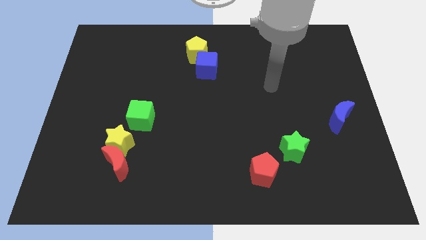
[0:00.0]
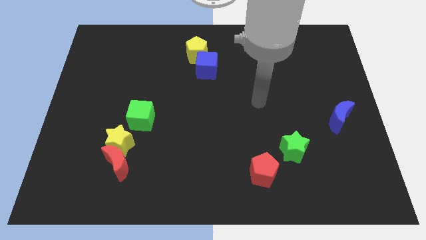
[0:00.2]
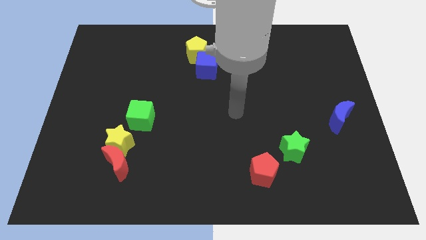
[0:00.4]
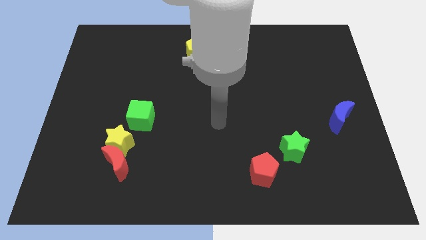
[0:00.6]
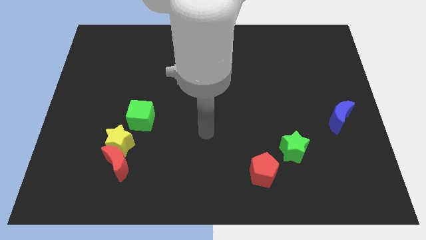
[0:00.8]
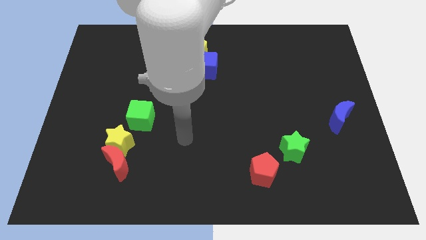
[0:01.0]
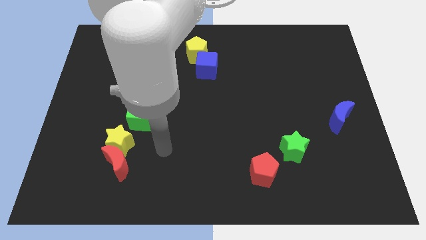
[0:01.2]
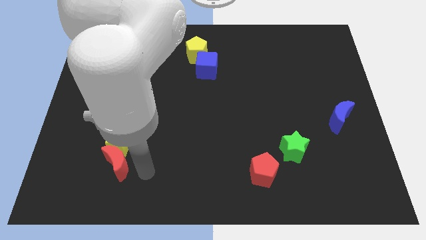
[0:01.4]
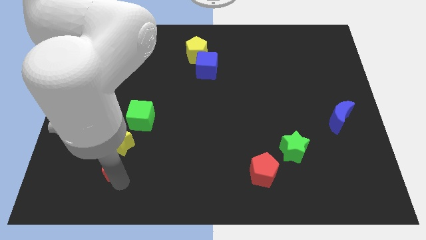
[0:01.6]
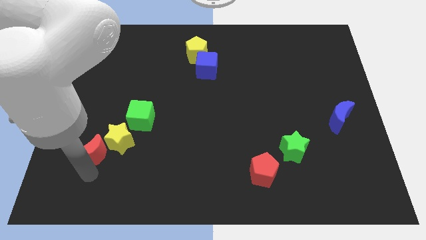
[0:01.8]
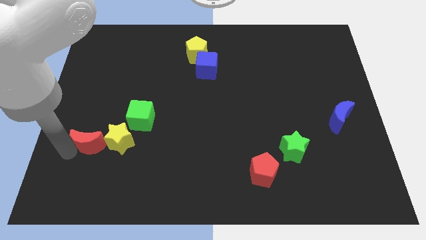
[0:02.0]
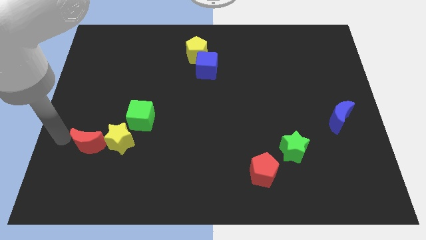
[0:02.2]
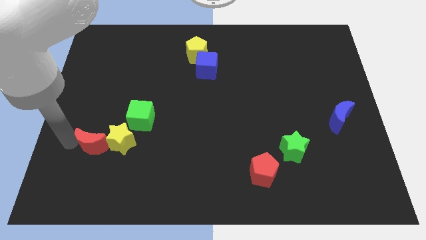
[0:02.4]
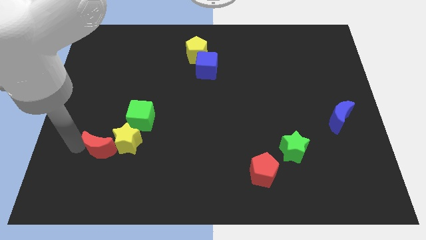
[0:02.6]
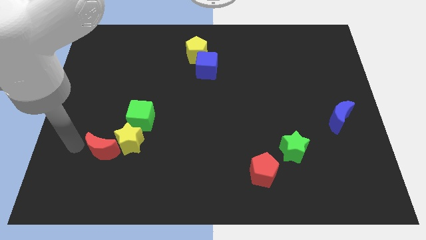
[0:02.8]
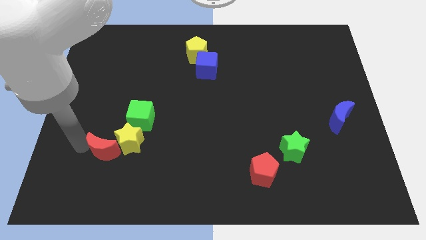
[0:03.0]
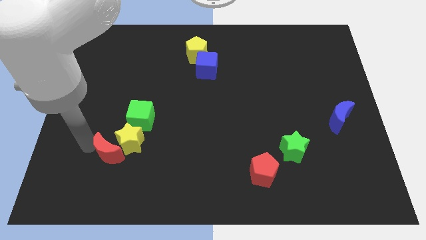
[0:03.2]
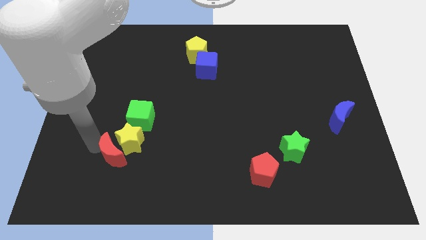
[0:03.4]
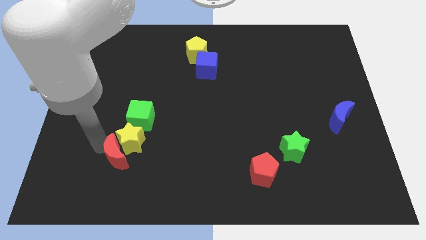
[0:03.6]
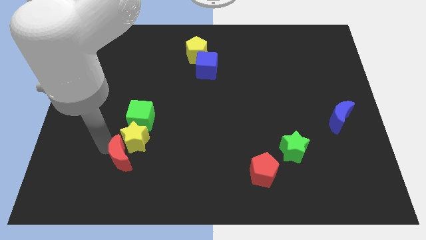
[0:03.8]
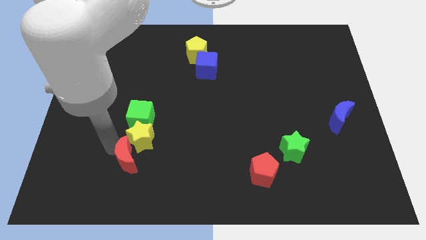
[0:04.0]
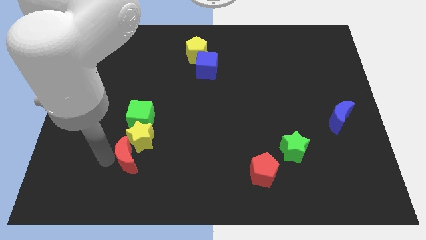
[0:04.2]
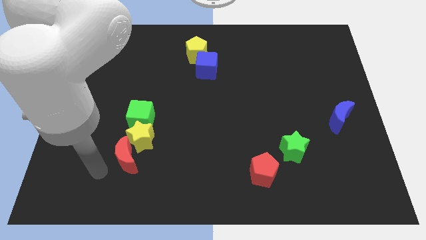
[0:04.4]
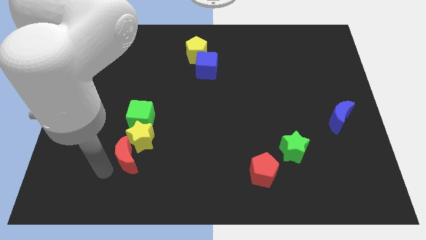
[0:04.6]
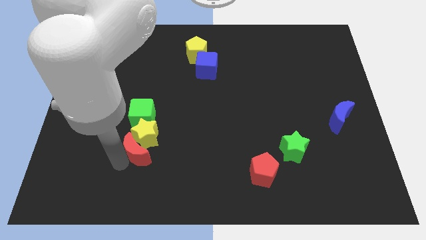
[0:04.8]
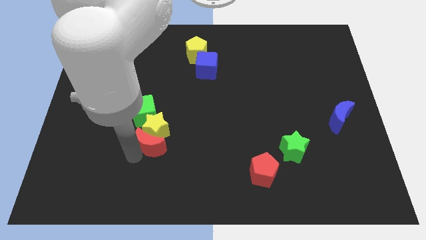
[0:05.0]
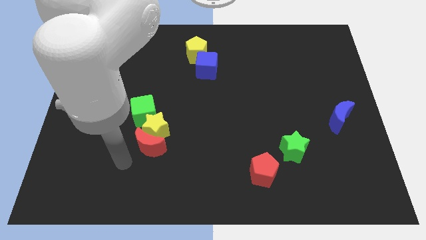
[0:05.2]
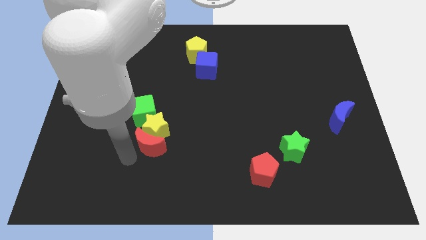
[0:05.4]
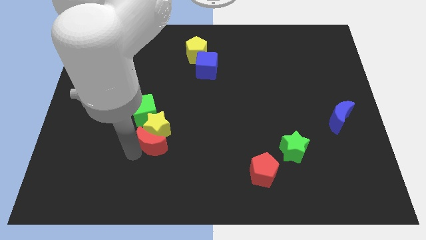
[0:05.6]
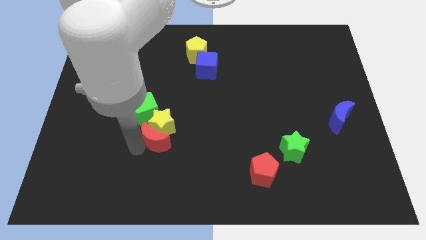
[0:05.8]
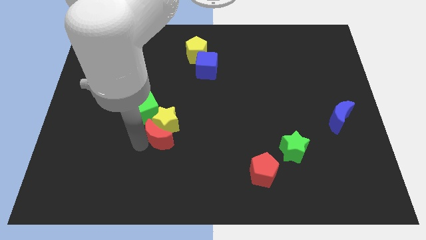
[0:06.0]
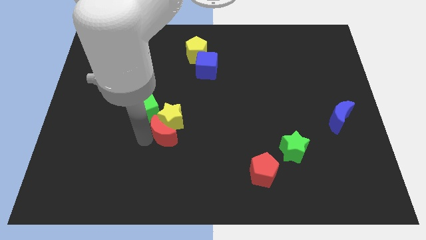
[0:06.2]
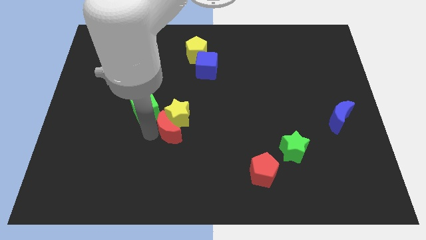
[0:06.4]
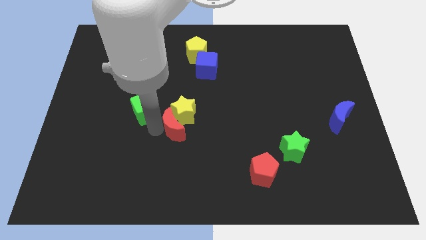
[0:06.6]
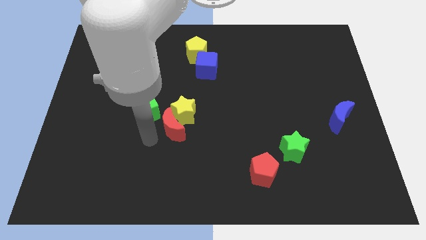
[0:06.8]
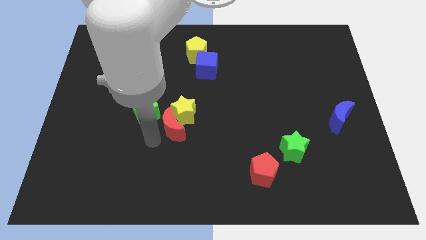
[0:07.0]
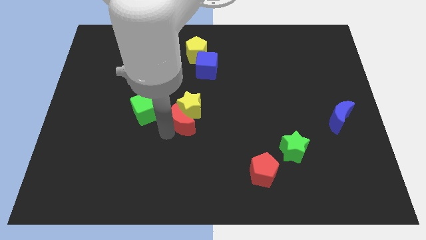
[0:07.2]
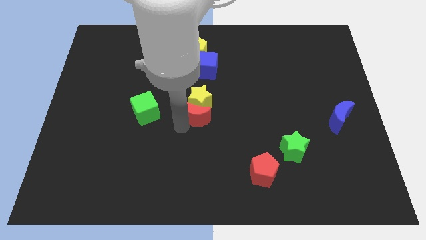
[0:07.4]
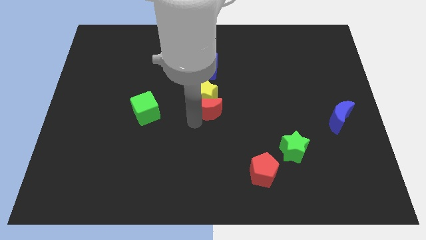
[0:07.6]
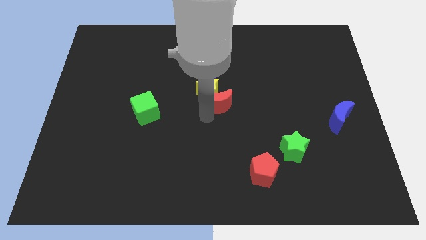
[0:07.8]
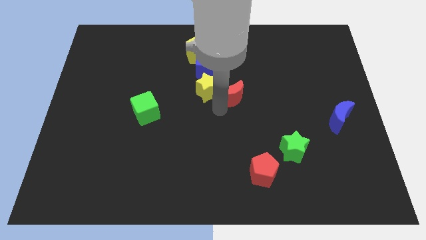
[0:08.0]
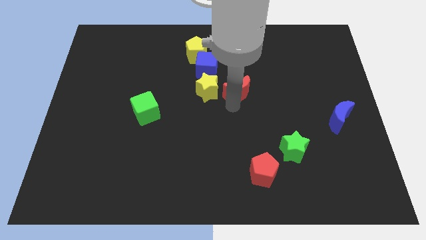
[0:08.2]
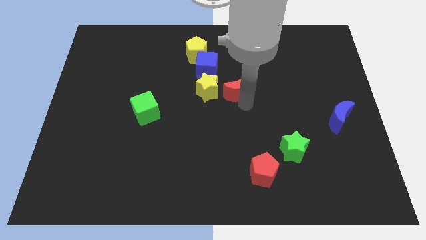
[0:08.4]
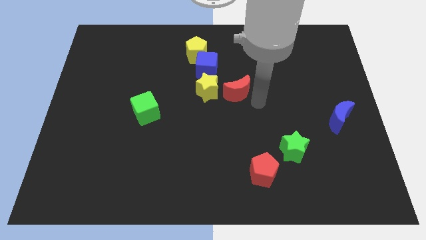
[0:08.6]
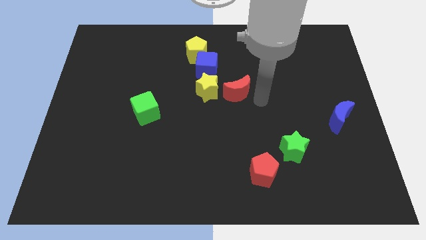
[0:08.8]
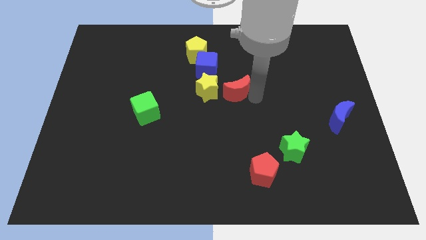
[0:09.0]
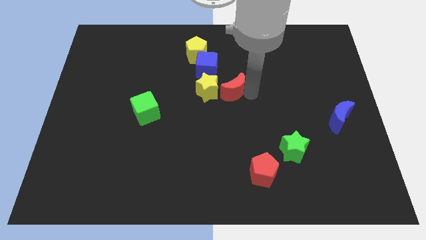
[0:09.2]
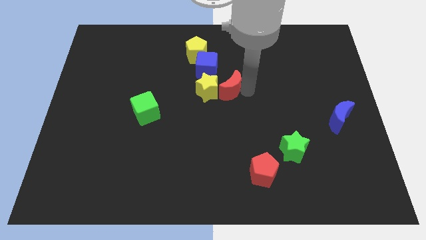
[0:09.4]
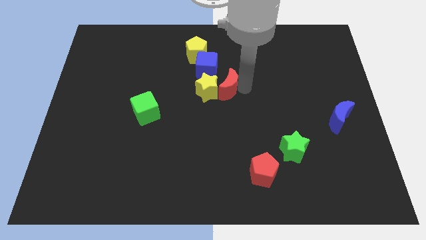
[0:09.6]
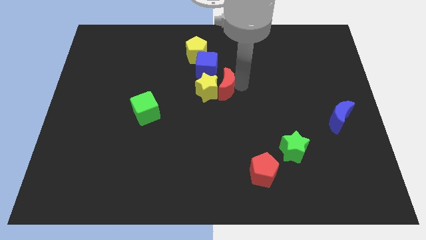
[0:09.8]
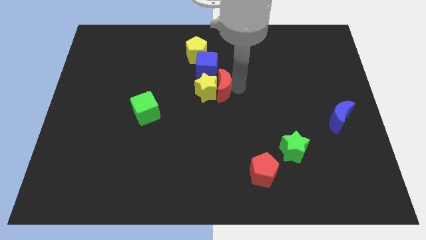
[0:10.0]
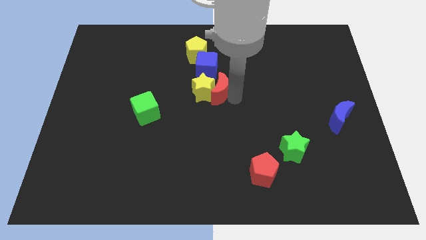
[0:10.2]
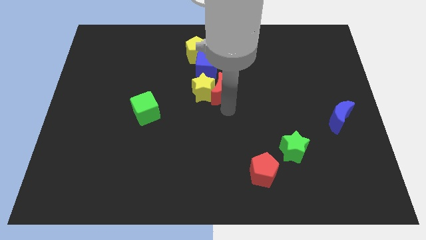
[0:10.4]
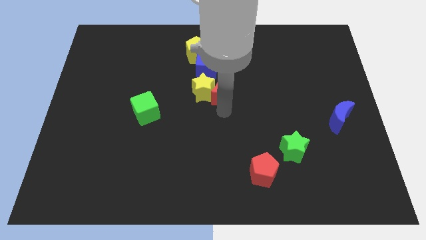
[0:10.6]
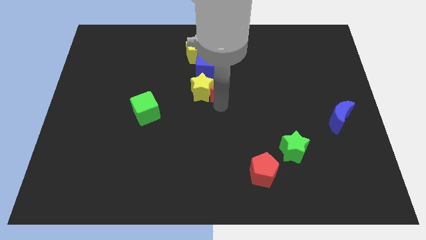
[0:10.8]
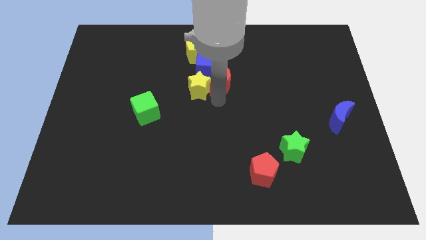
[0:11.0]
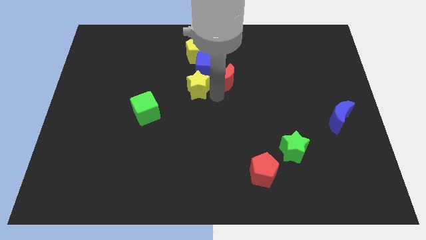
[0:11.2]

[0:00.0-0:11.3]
slide the red moon to the bottom right of the yellow pentagon
